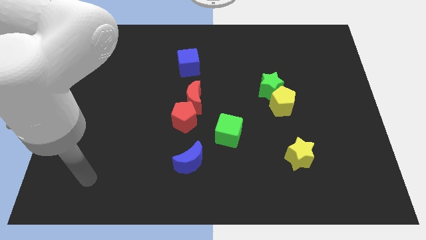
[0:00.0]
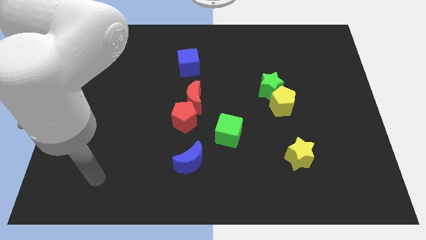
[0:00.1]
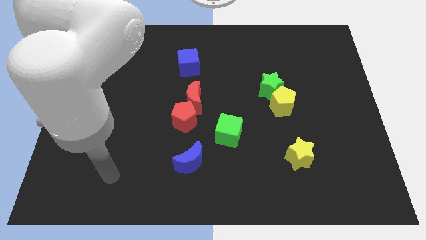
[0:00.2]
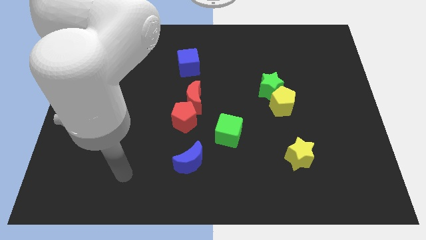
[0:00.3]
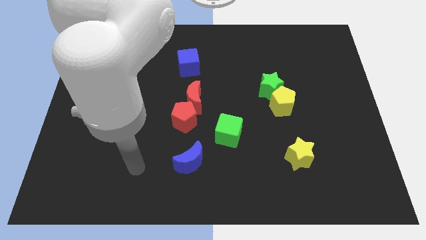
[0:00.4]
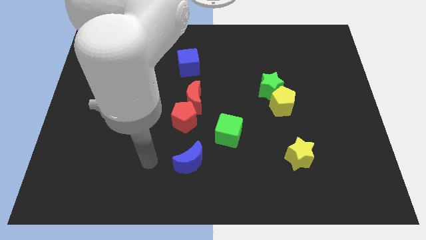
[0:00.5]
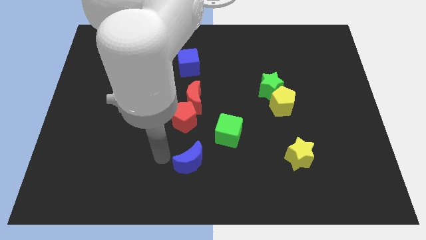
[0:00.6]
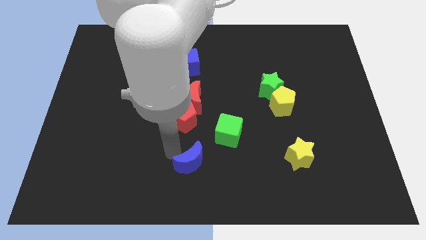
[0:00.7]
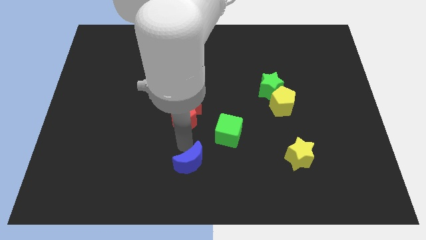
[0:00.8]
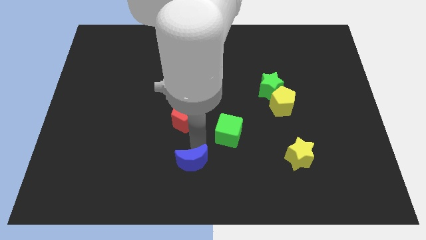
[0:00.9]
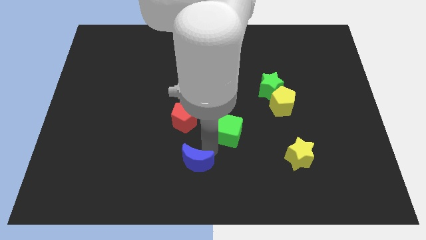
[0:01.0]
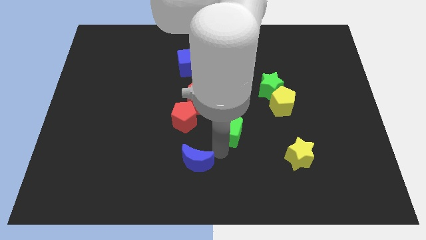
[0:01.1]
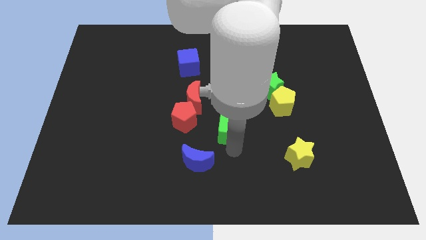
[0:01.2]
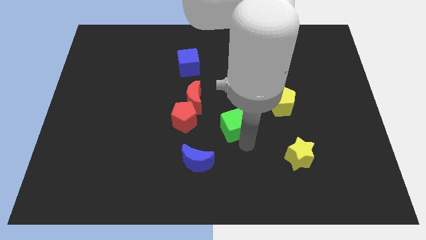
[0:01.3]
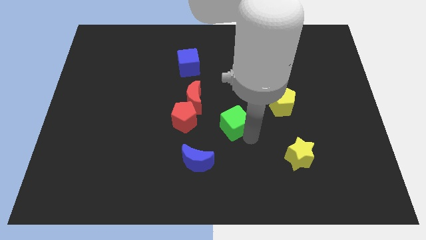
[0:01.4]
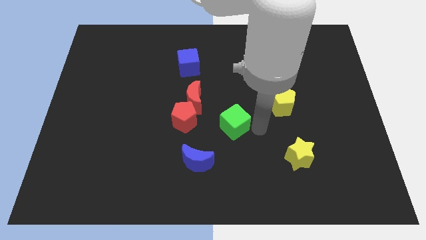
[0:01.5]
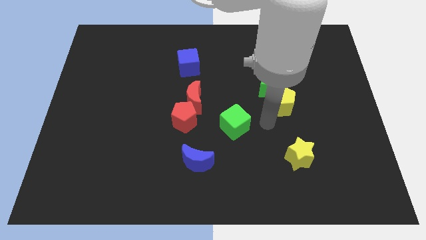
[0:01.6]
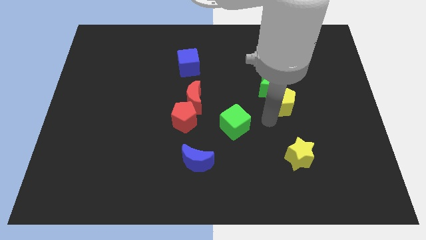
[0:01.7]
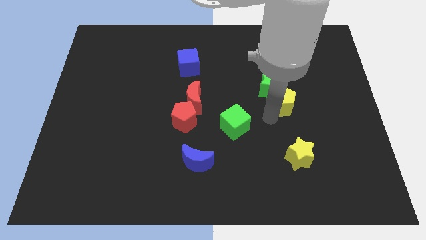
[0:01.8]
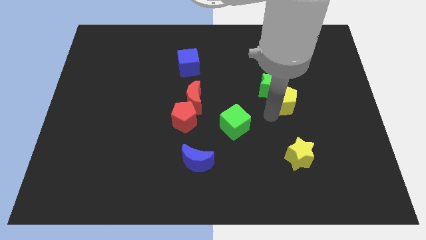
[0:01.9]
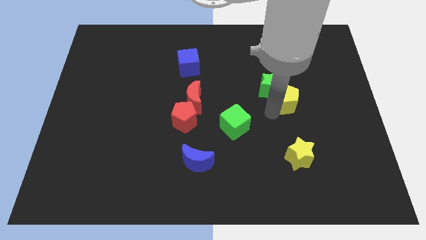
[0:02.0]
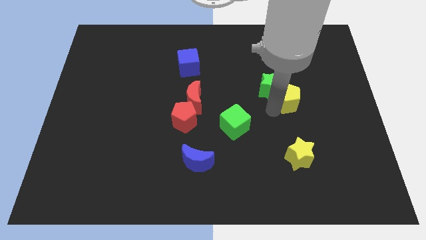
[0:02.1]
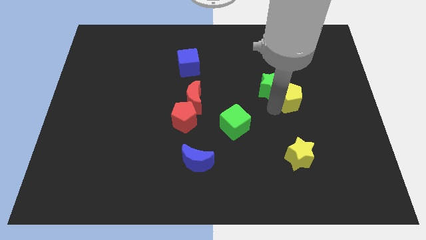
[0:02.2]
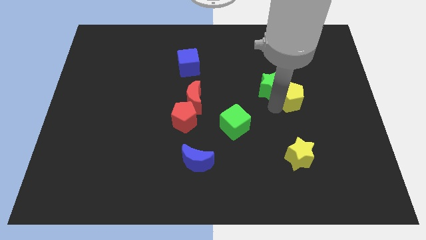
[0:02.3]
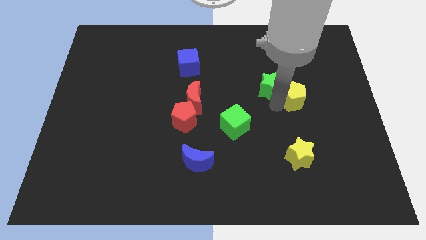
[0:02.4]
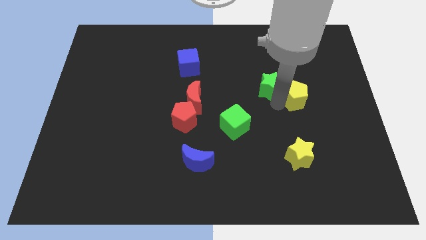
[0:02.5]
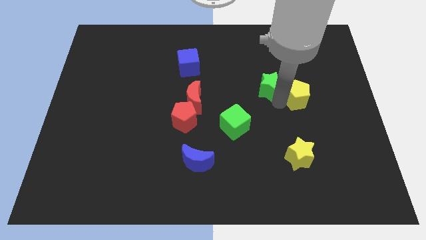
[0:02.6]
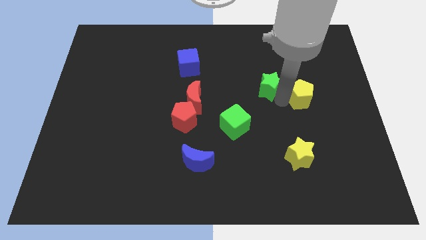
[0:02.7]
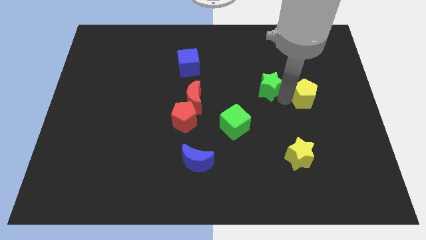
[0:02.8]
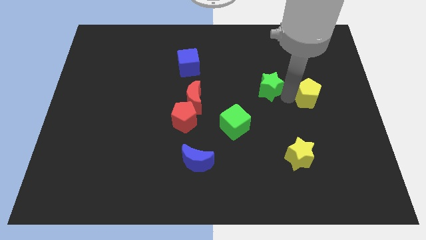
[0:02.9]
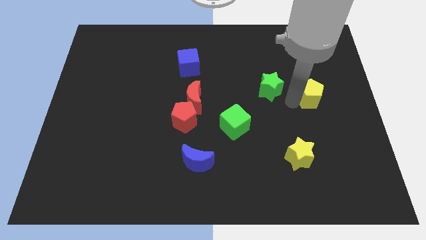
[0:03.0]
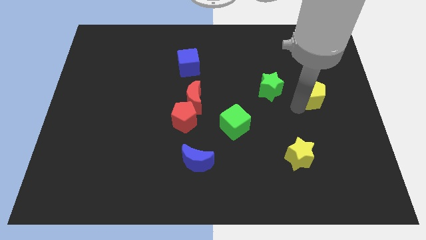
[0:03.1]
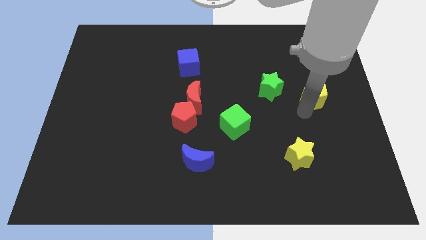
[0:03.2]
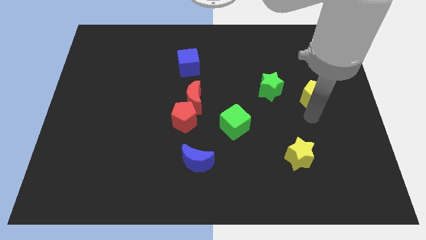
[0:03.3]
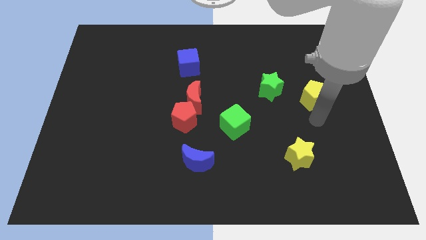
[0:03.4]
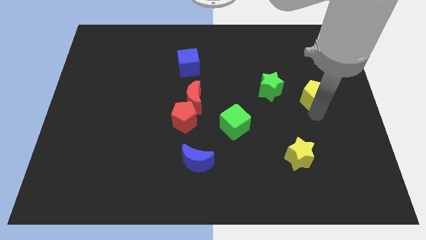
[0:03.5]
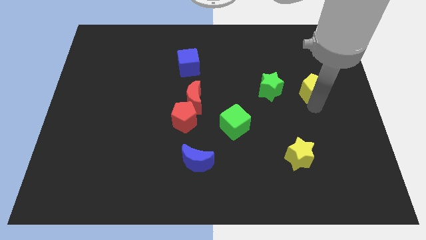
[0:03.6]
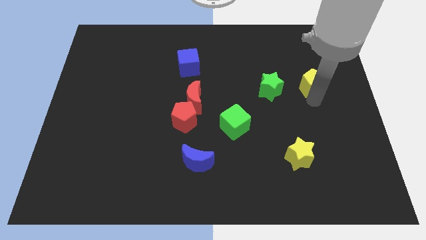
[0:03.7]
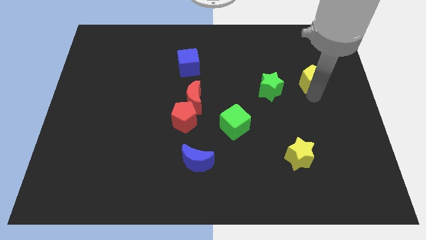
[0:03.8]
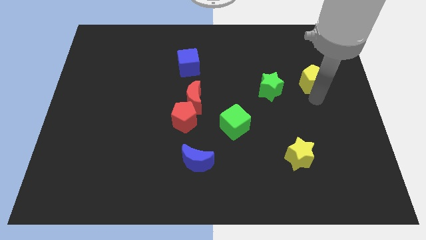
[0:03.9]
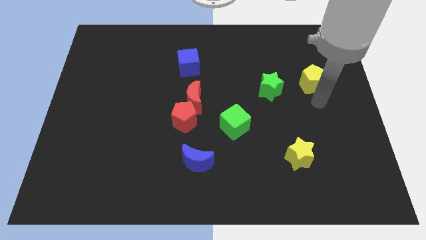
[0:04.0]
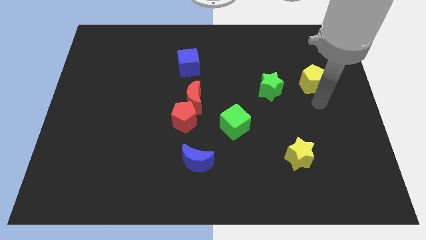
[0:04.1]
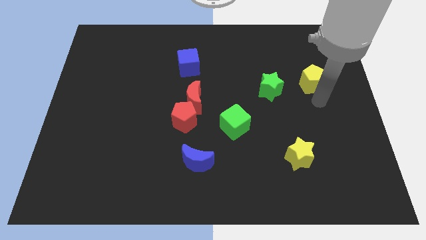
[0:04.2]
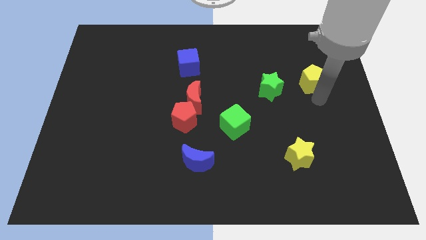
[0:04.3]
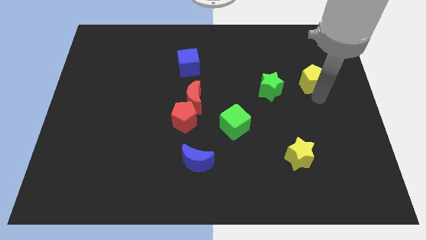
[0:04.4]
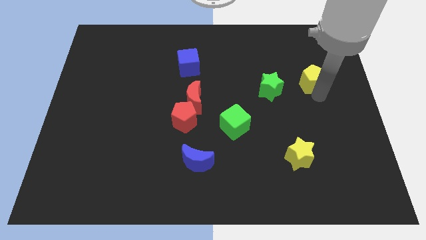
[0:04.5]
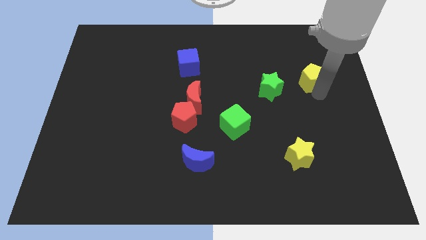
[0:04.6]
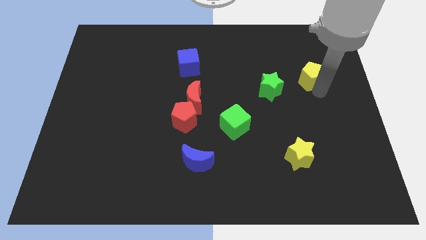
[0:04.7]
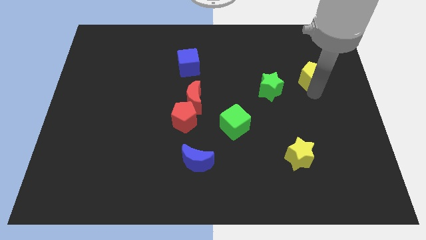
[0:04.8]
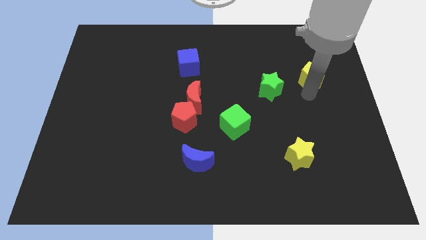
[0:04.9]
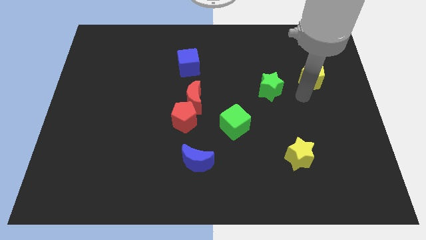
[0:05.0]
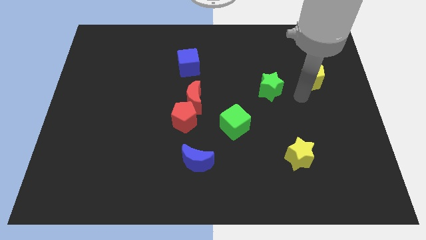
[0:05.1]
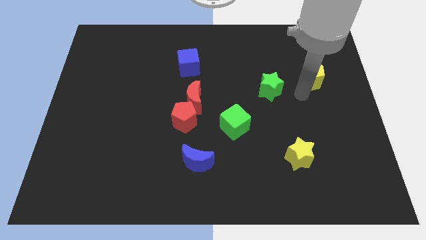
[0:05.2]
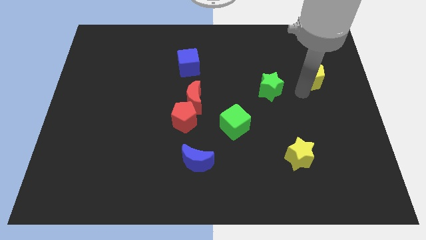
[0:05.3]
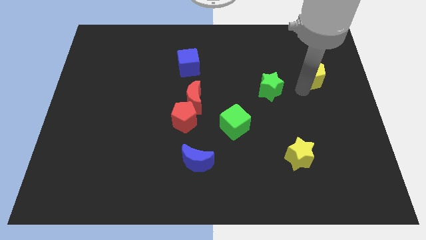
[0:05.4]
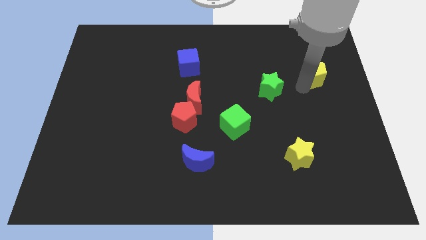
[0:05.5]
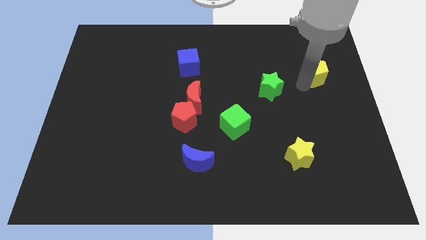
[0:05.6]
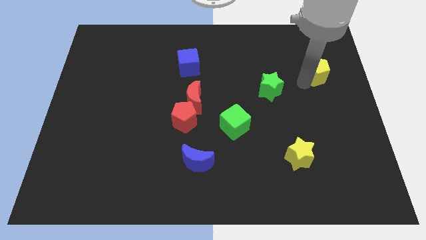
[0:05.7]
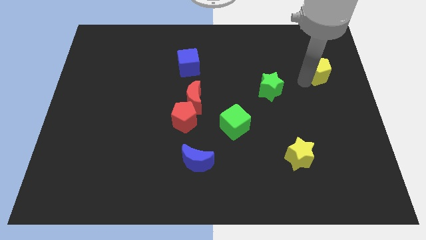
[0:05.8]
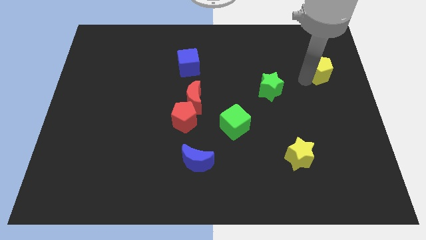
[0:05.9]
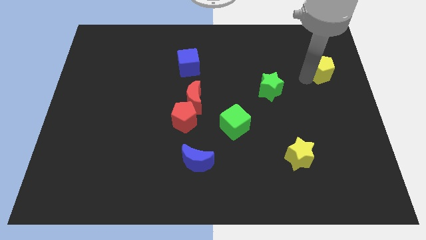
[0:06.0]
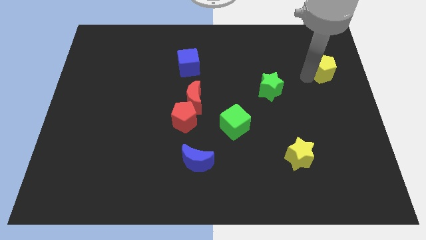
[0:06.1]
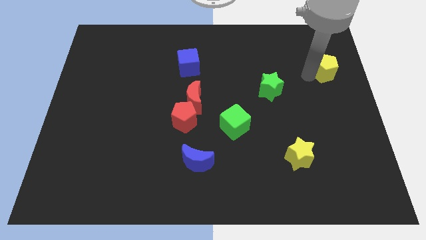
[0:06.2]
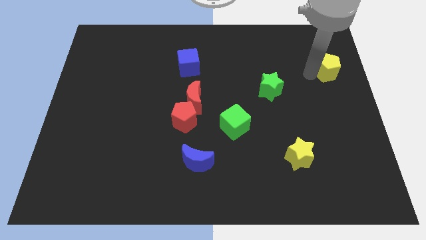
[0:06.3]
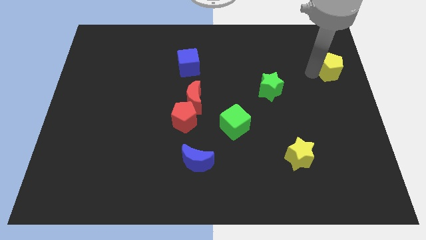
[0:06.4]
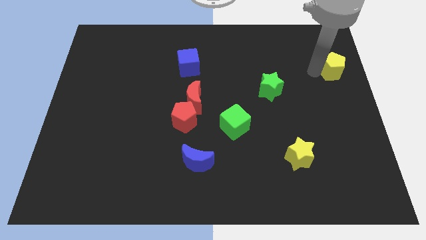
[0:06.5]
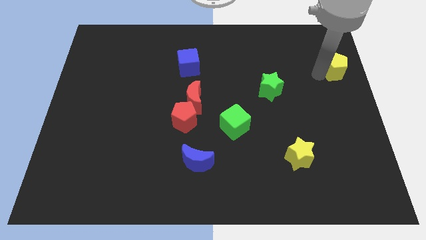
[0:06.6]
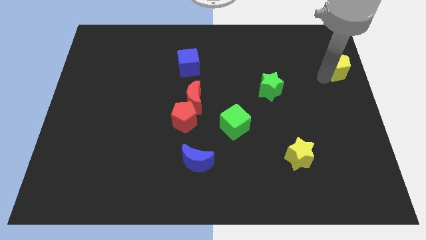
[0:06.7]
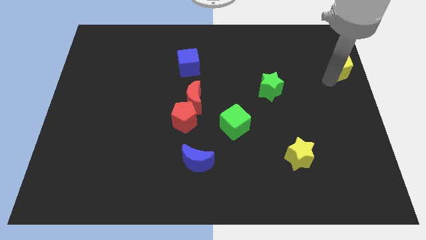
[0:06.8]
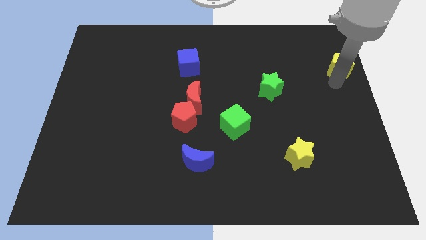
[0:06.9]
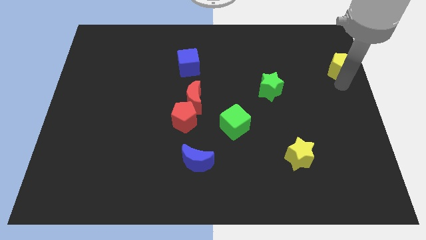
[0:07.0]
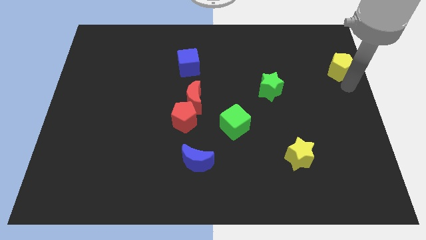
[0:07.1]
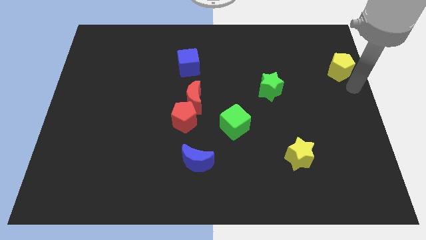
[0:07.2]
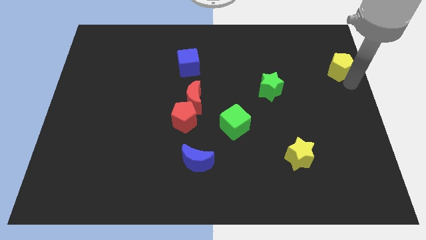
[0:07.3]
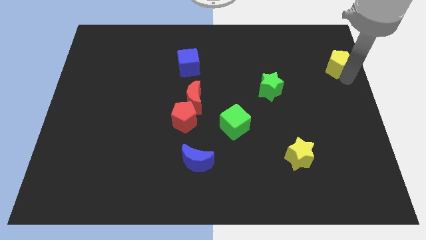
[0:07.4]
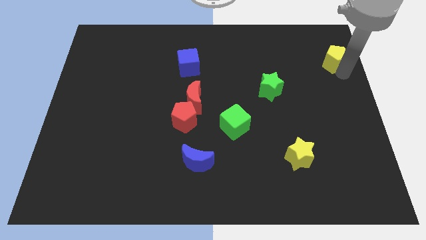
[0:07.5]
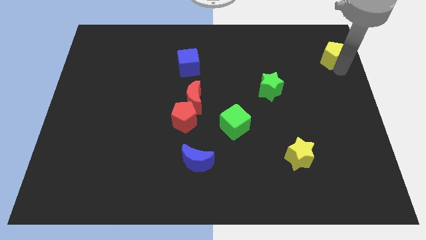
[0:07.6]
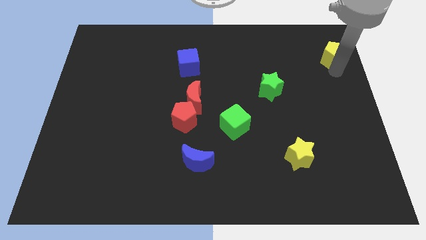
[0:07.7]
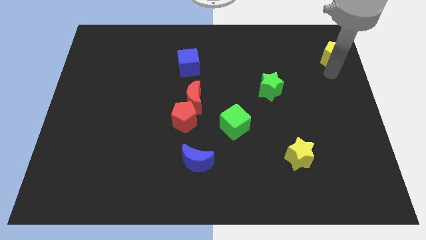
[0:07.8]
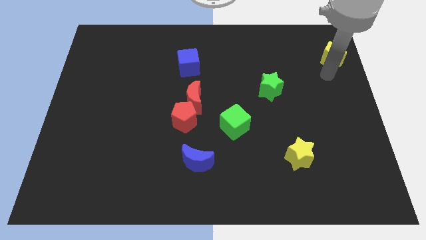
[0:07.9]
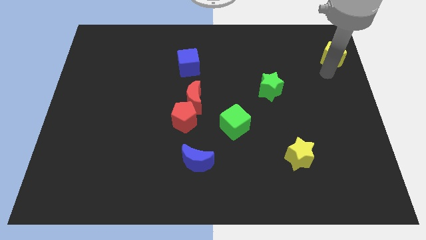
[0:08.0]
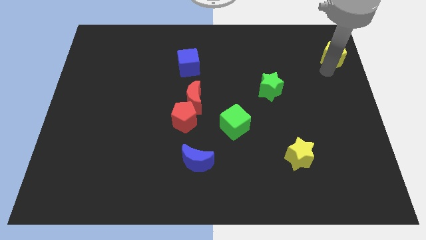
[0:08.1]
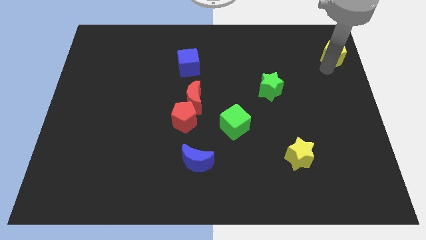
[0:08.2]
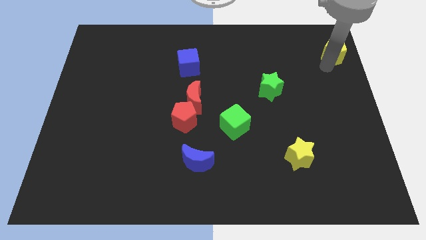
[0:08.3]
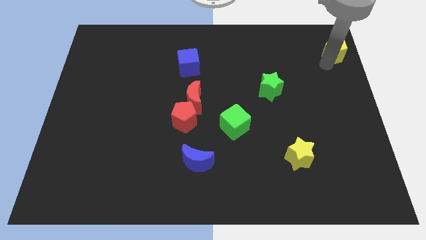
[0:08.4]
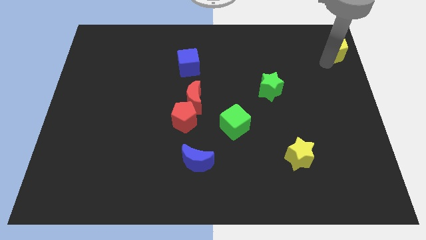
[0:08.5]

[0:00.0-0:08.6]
put the yellow pentagon to the top right corner
